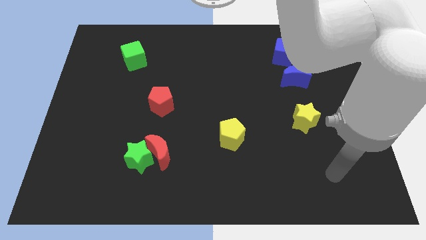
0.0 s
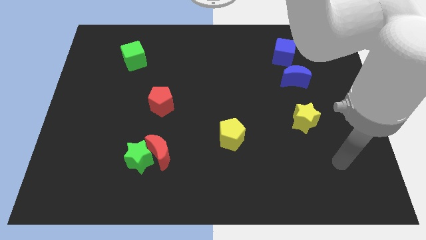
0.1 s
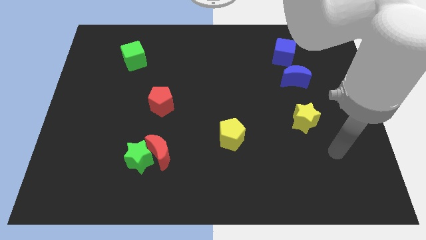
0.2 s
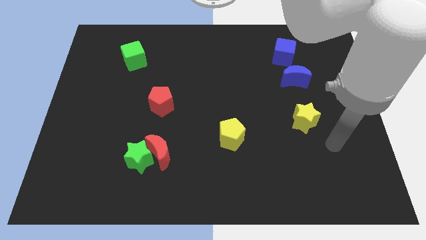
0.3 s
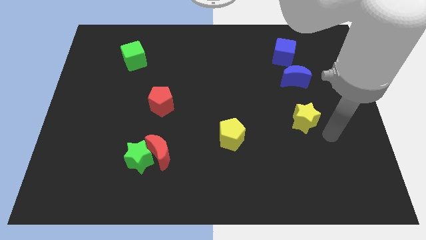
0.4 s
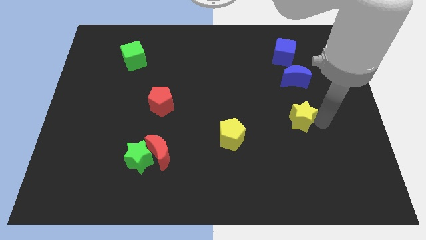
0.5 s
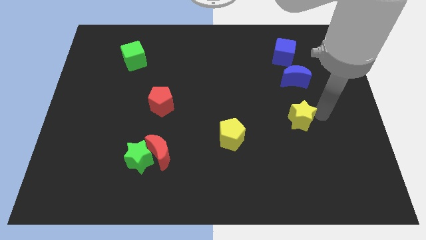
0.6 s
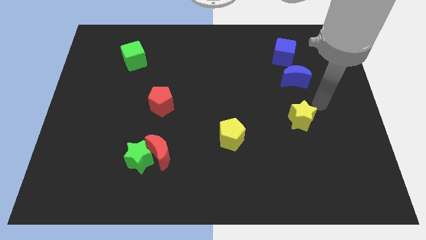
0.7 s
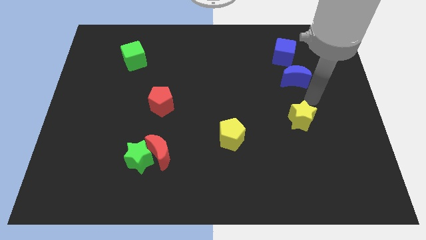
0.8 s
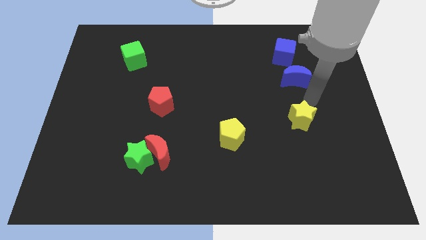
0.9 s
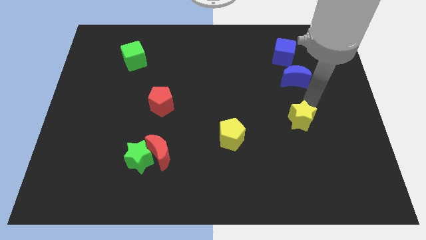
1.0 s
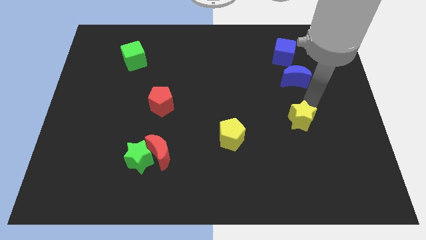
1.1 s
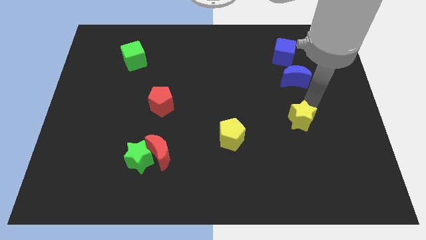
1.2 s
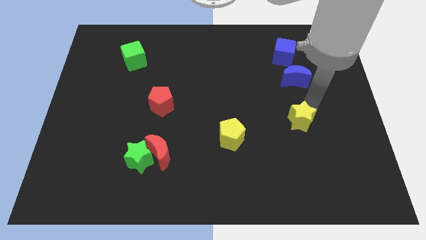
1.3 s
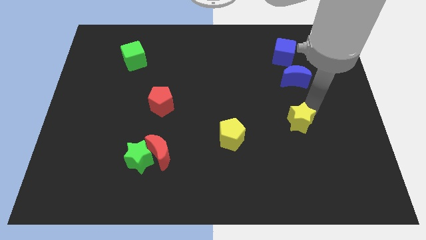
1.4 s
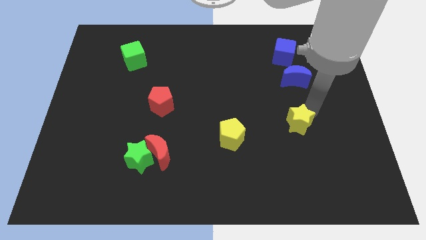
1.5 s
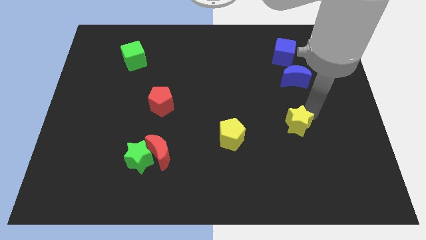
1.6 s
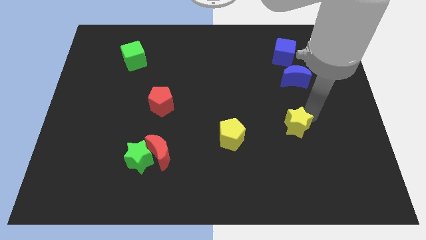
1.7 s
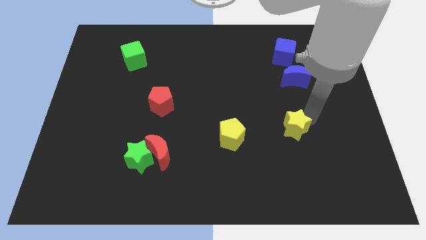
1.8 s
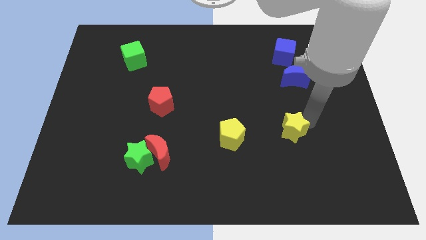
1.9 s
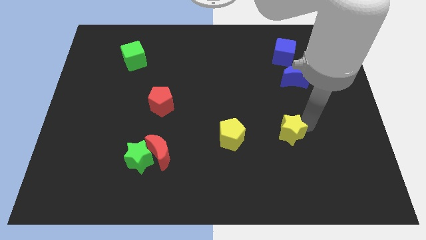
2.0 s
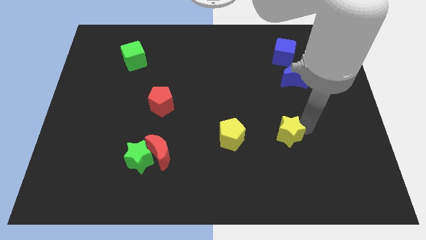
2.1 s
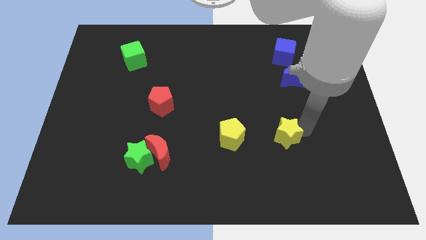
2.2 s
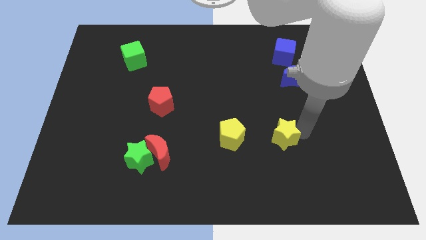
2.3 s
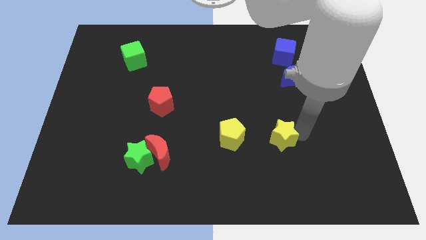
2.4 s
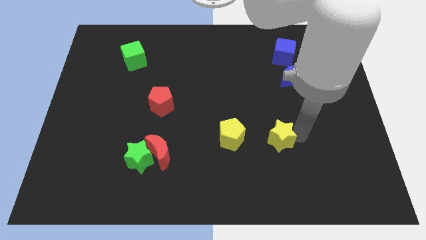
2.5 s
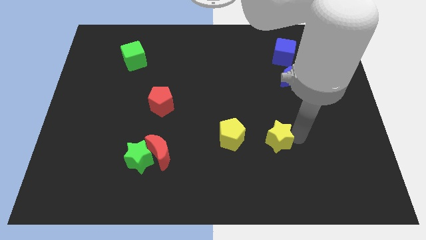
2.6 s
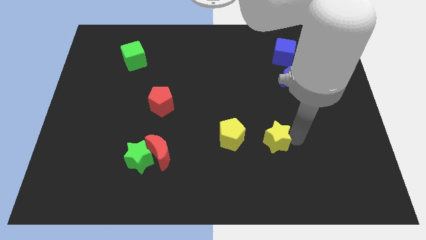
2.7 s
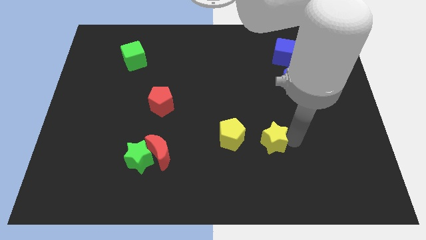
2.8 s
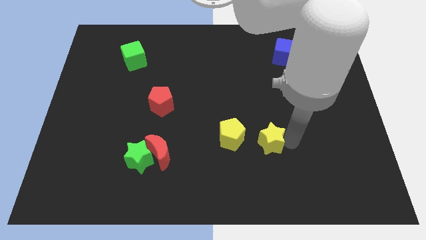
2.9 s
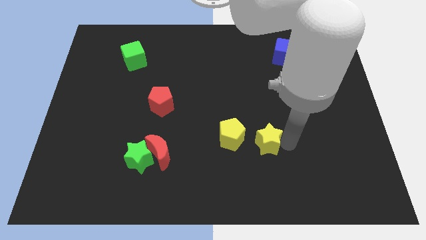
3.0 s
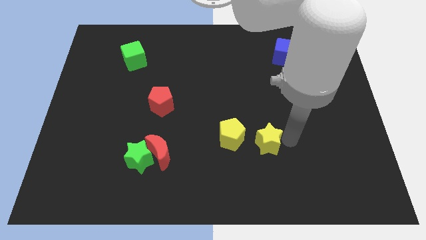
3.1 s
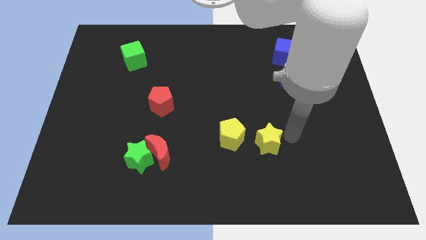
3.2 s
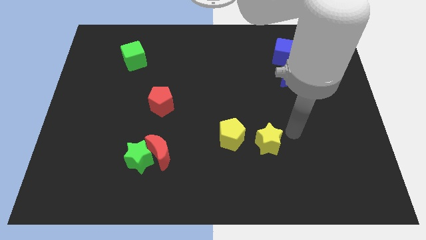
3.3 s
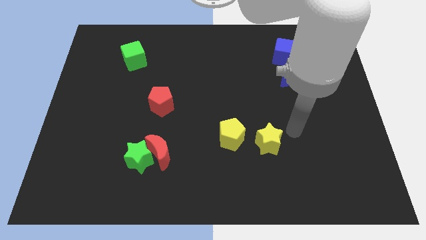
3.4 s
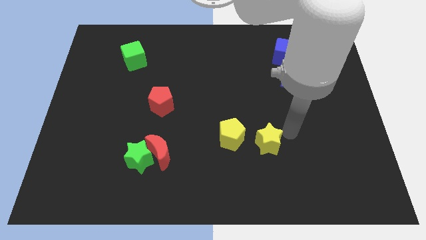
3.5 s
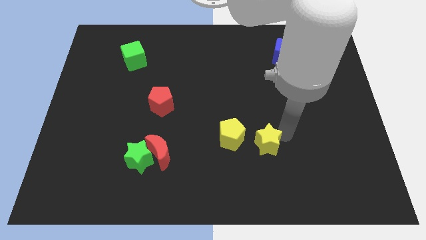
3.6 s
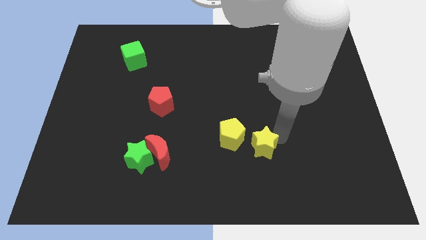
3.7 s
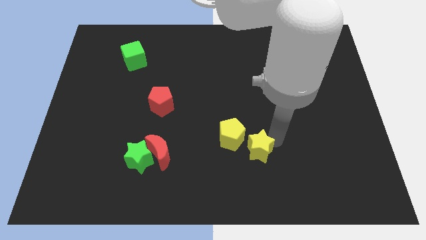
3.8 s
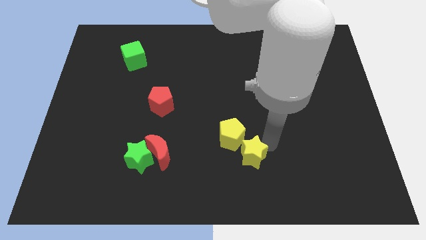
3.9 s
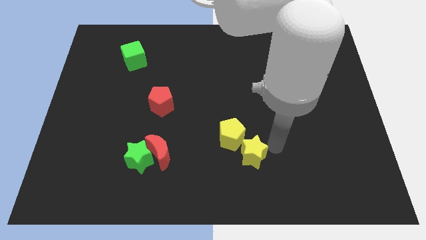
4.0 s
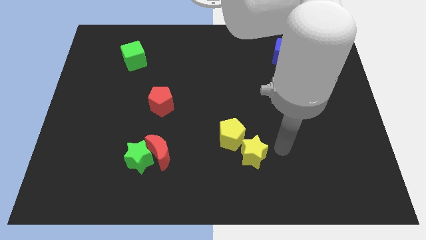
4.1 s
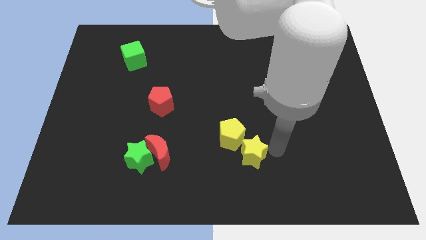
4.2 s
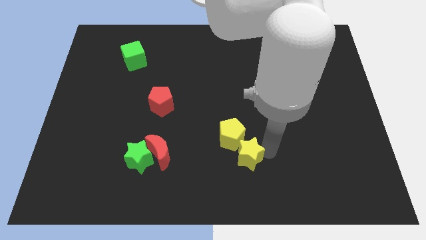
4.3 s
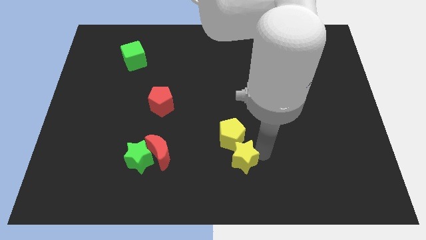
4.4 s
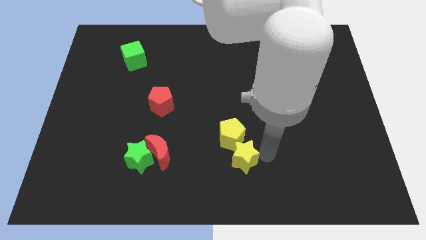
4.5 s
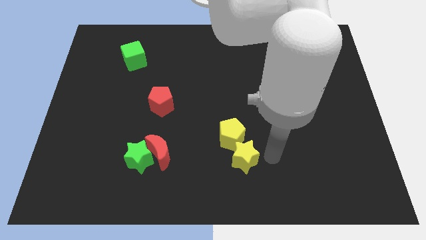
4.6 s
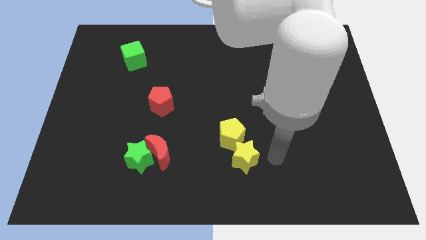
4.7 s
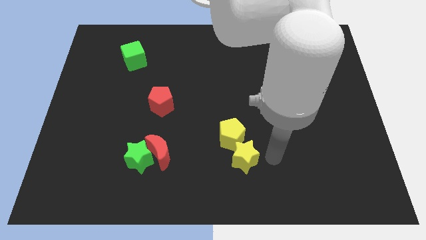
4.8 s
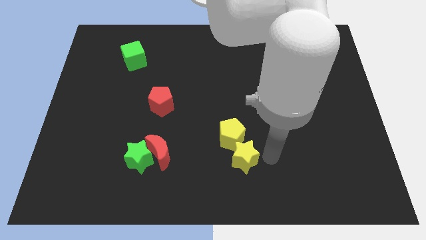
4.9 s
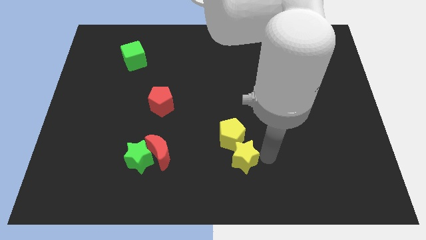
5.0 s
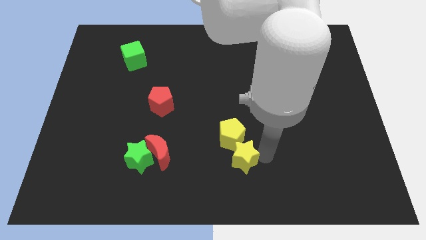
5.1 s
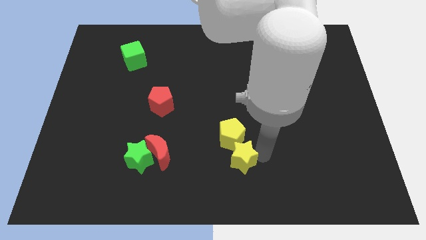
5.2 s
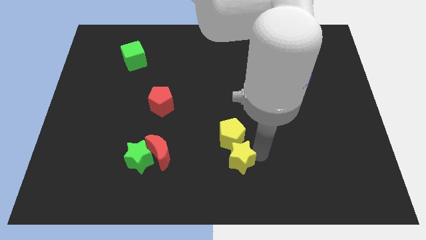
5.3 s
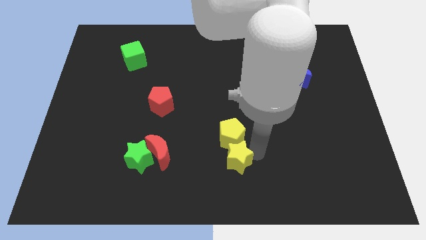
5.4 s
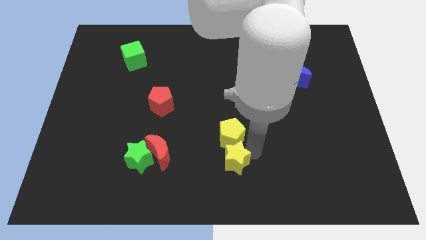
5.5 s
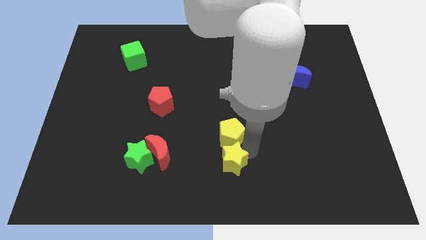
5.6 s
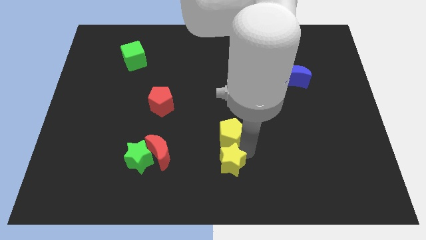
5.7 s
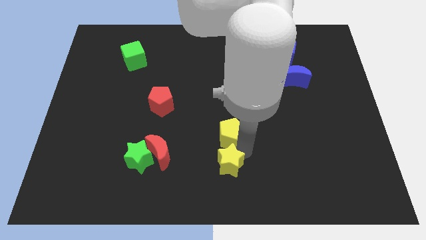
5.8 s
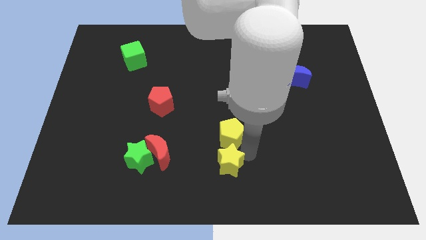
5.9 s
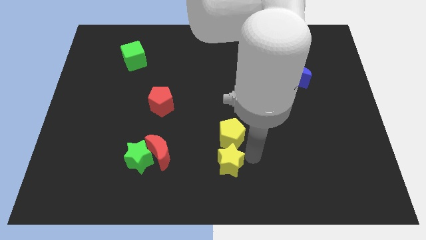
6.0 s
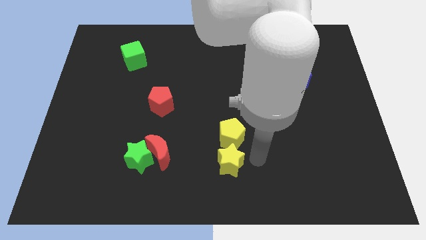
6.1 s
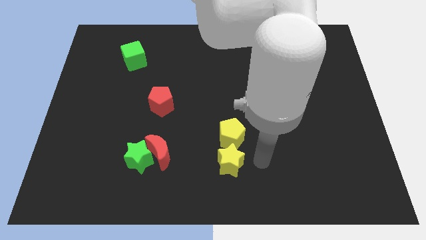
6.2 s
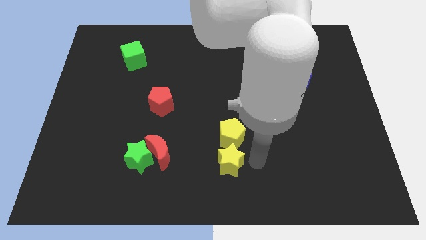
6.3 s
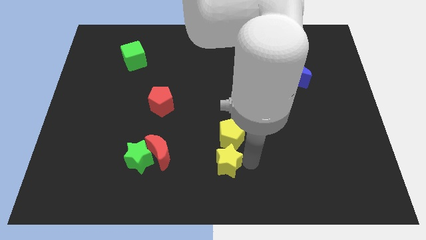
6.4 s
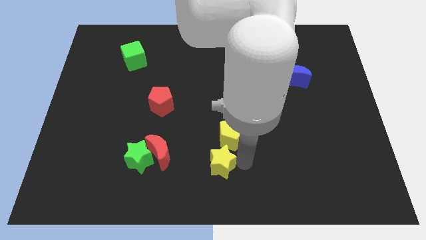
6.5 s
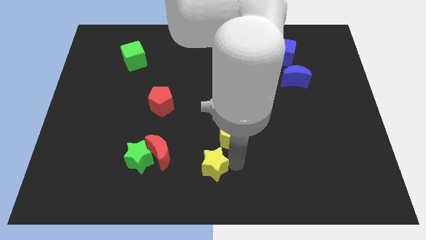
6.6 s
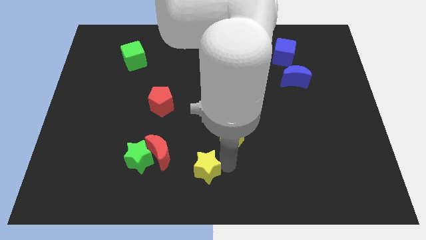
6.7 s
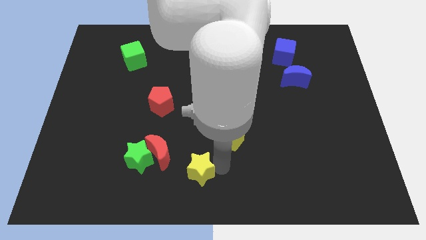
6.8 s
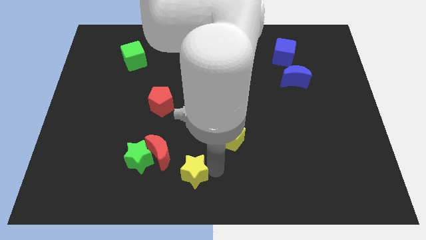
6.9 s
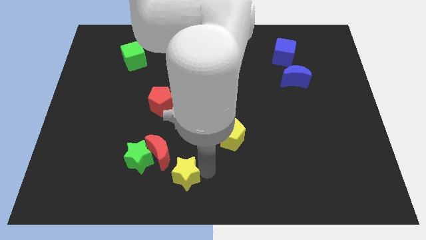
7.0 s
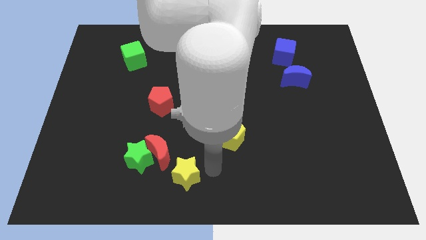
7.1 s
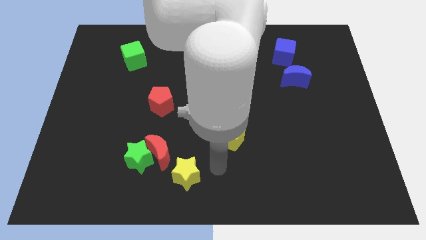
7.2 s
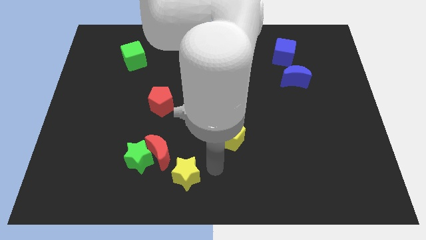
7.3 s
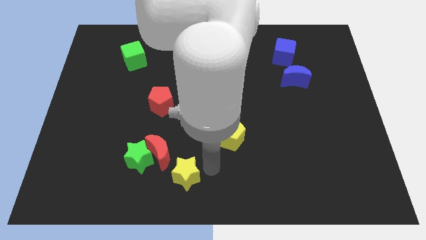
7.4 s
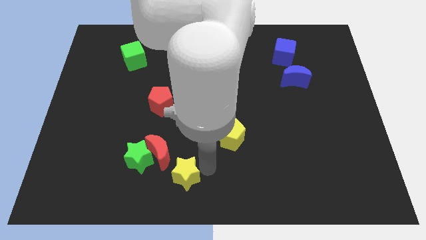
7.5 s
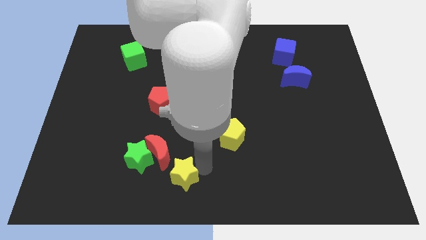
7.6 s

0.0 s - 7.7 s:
push the yellow star to the bottom right side of the green star
